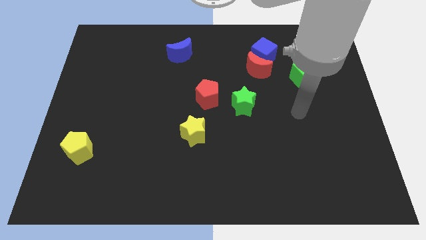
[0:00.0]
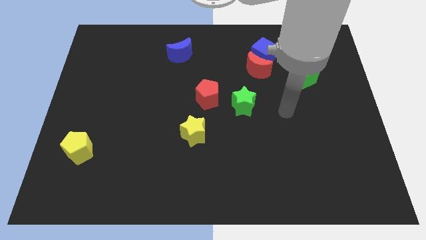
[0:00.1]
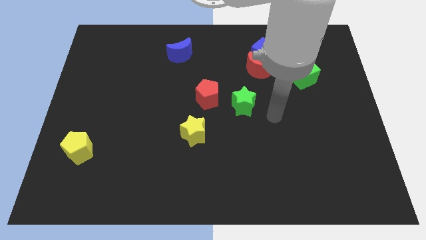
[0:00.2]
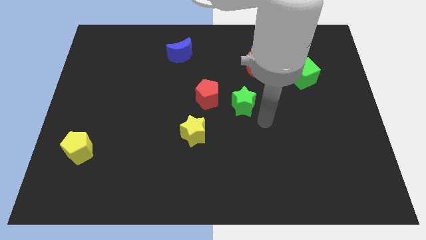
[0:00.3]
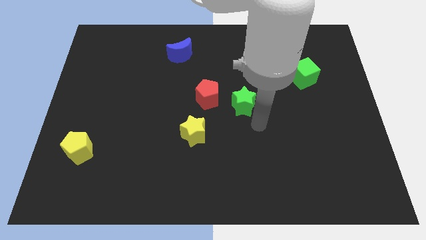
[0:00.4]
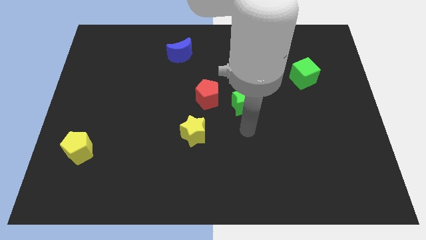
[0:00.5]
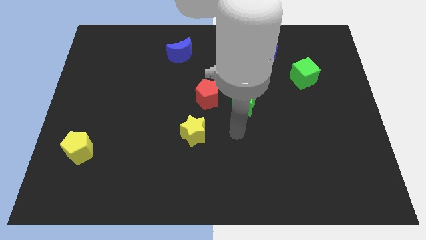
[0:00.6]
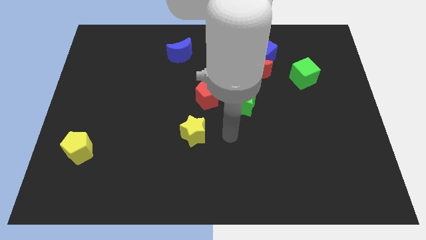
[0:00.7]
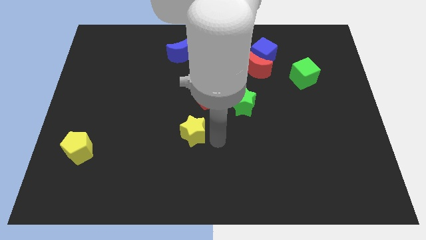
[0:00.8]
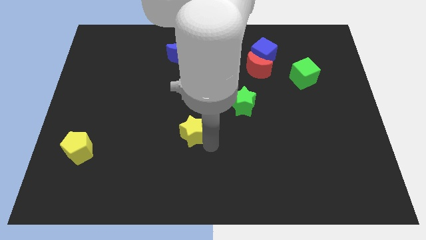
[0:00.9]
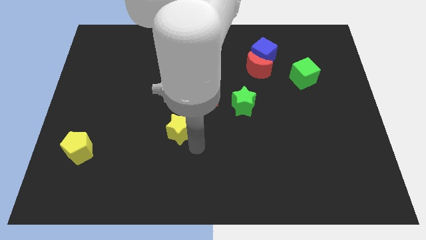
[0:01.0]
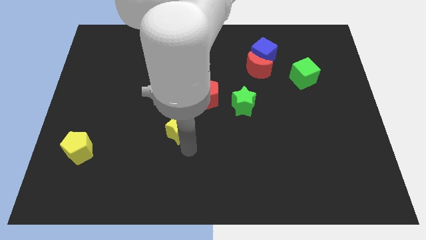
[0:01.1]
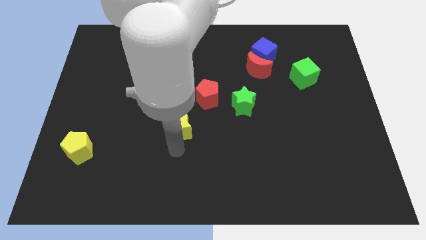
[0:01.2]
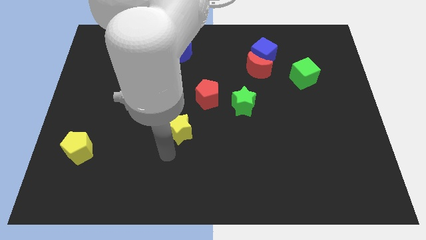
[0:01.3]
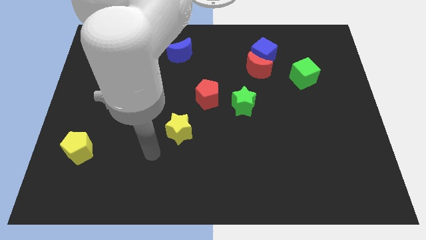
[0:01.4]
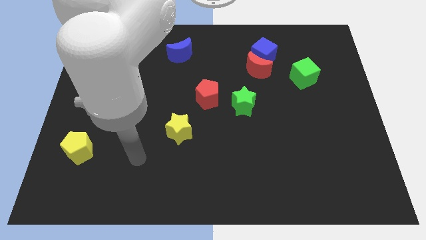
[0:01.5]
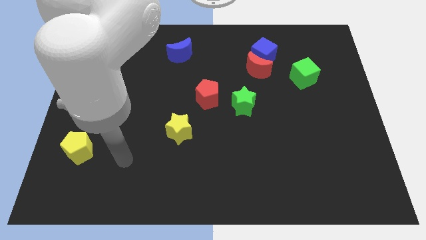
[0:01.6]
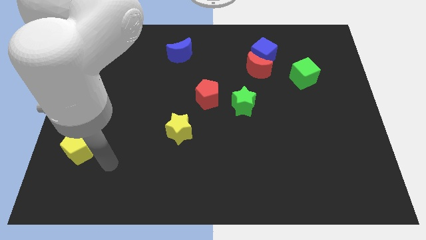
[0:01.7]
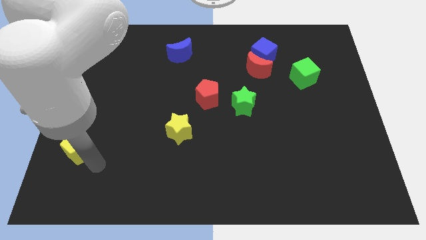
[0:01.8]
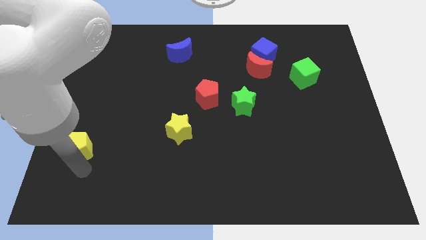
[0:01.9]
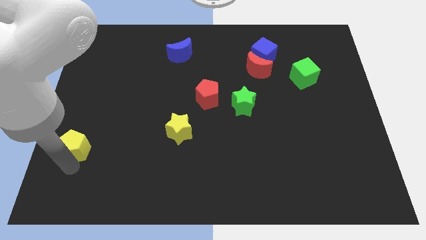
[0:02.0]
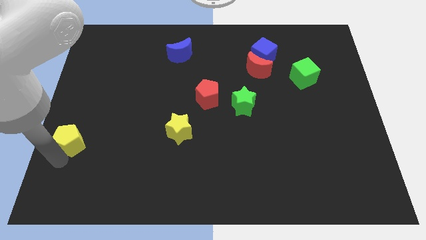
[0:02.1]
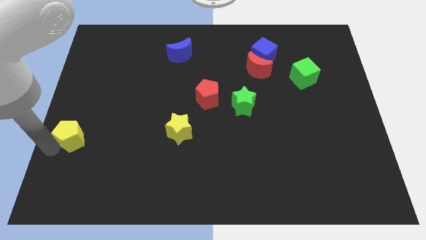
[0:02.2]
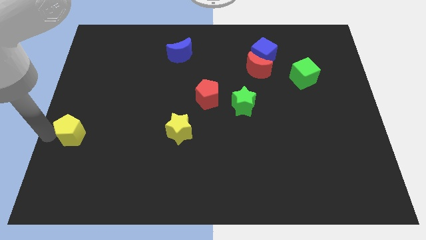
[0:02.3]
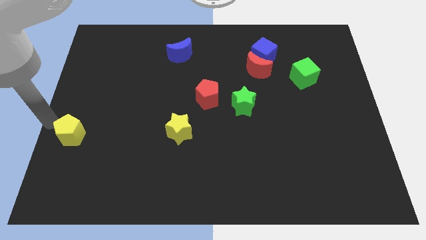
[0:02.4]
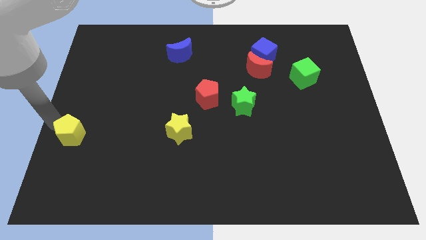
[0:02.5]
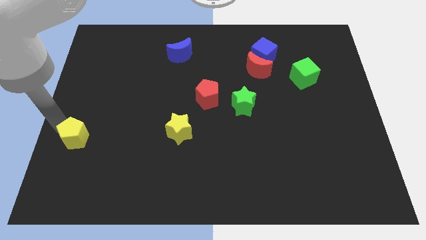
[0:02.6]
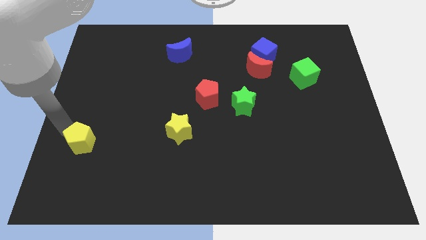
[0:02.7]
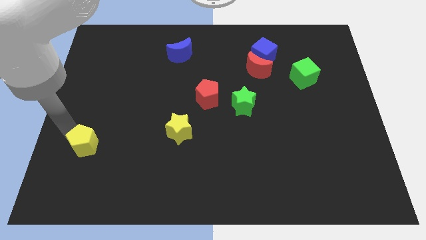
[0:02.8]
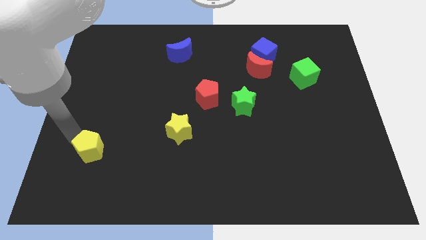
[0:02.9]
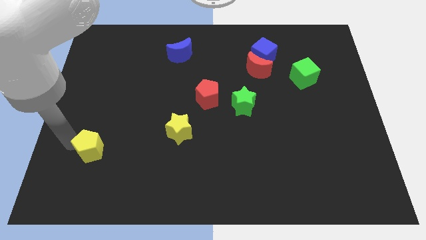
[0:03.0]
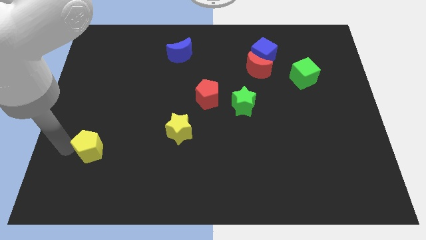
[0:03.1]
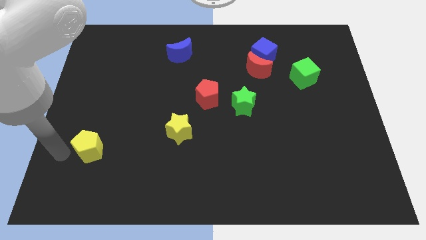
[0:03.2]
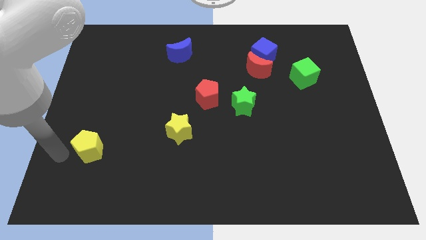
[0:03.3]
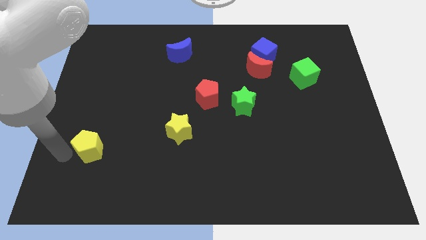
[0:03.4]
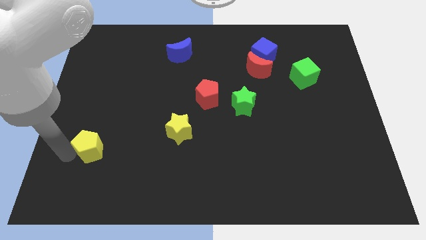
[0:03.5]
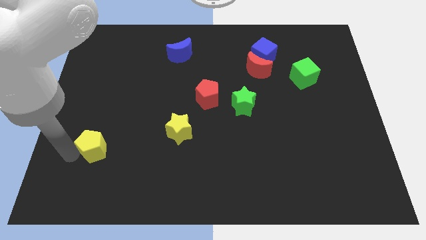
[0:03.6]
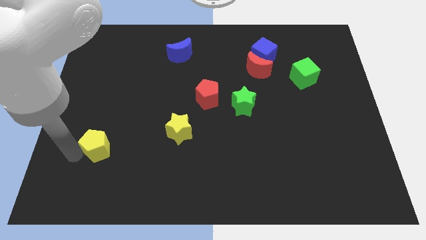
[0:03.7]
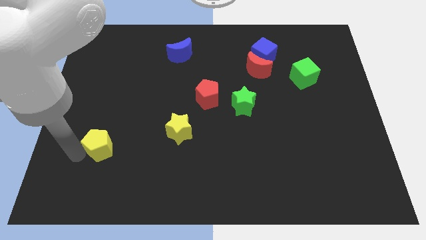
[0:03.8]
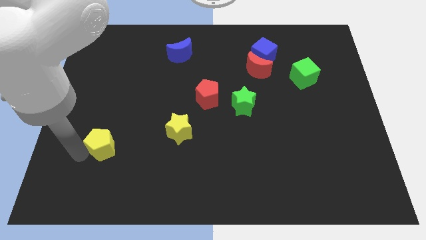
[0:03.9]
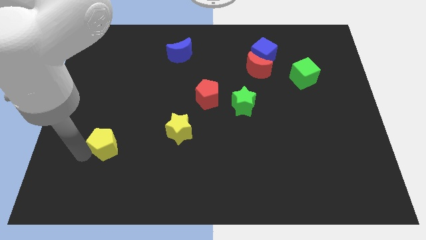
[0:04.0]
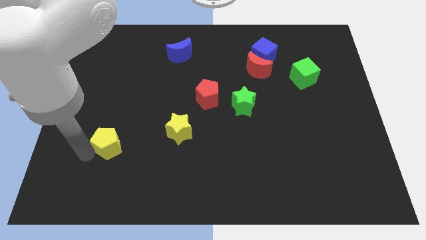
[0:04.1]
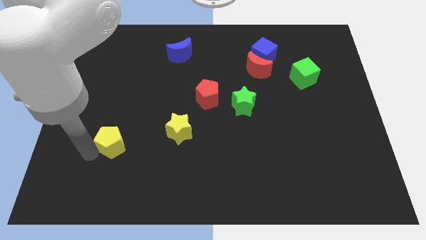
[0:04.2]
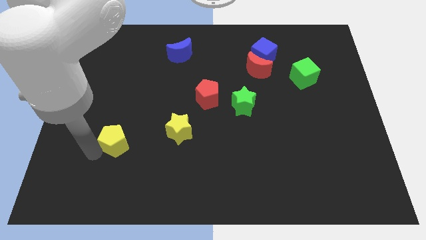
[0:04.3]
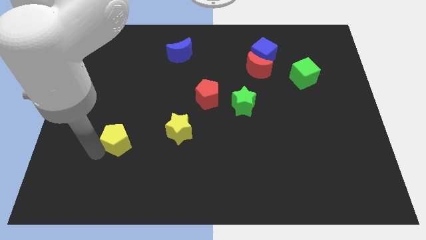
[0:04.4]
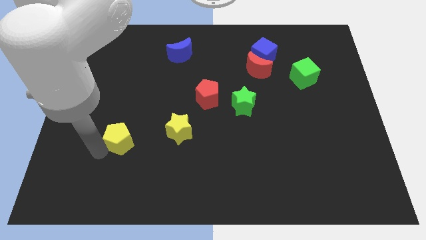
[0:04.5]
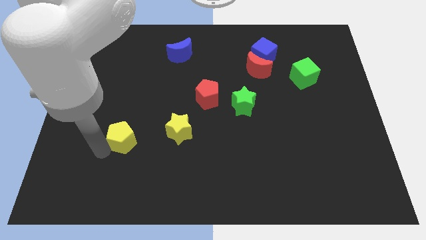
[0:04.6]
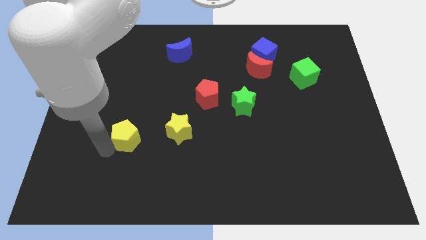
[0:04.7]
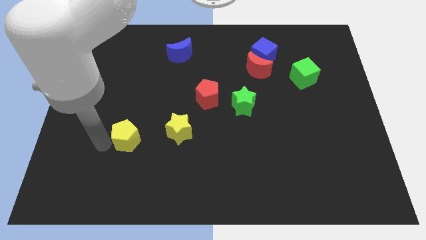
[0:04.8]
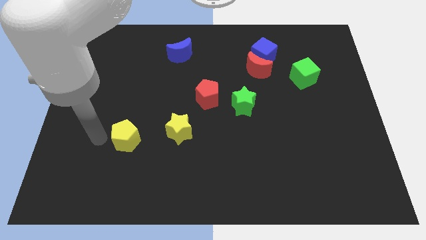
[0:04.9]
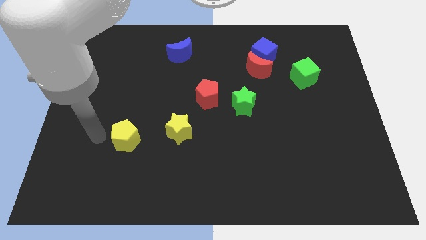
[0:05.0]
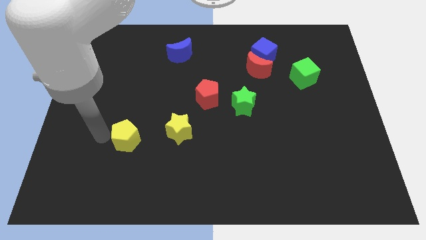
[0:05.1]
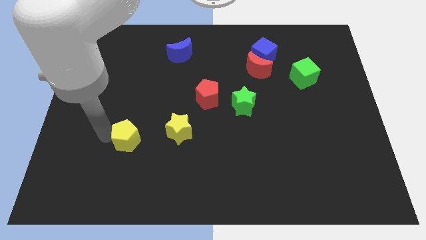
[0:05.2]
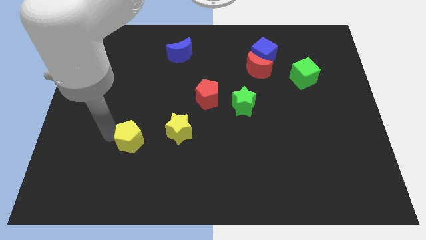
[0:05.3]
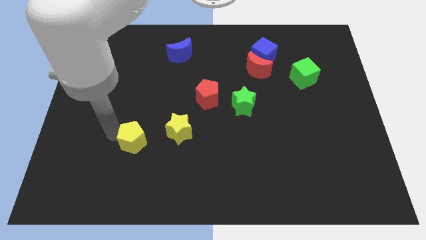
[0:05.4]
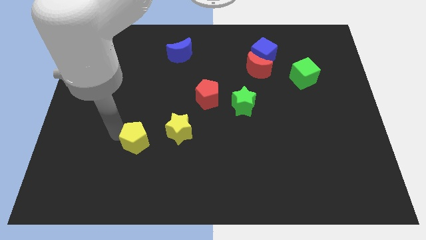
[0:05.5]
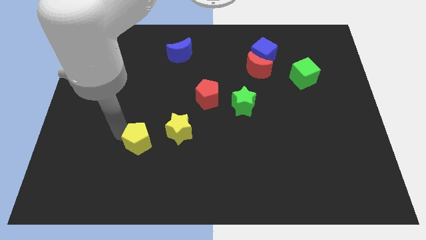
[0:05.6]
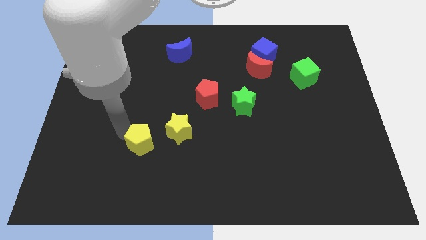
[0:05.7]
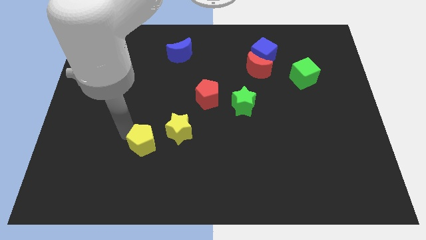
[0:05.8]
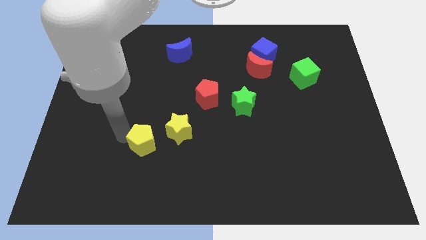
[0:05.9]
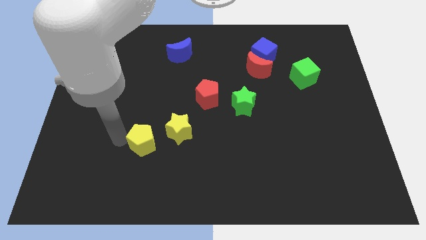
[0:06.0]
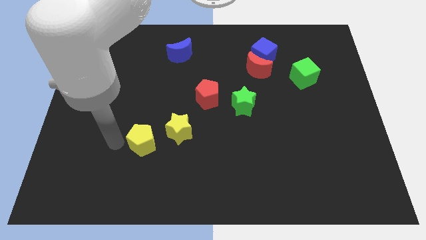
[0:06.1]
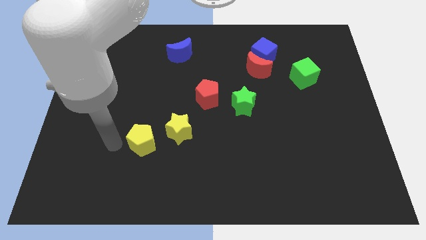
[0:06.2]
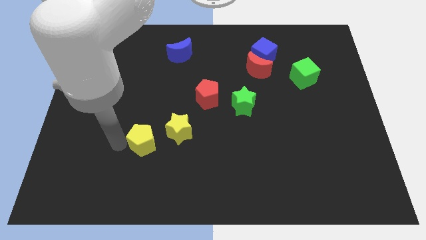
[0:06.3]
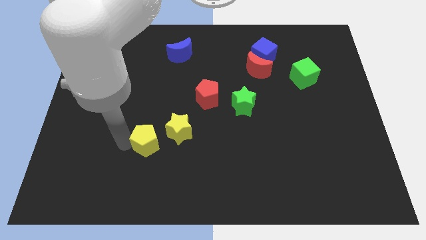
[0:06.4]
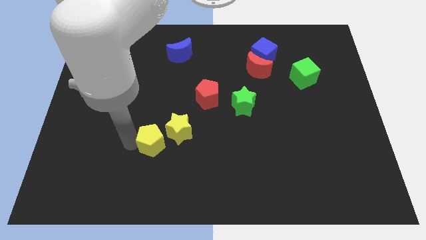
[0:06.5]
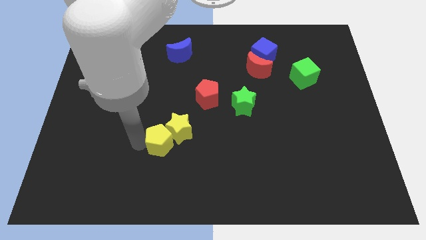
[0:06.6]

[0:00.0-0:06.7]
move the yellow pentagon next to the yellow star

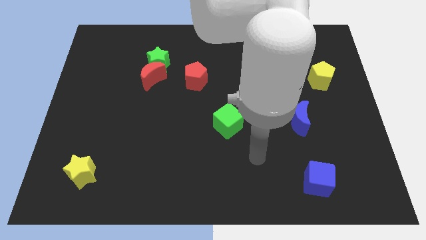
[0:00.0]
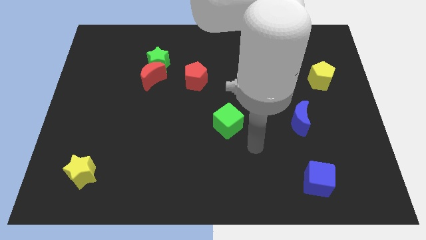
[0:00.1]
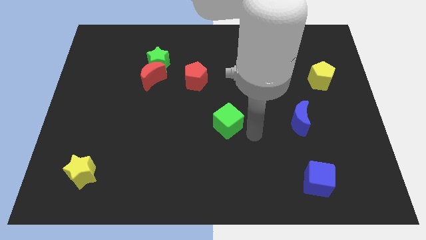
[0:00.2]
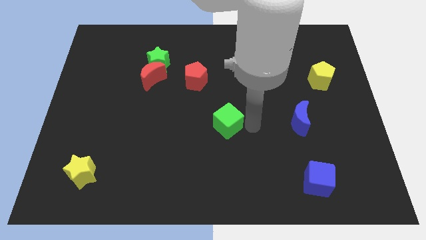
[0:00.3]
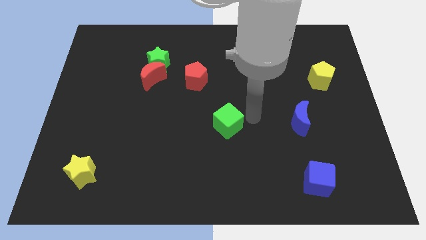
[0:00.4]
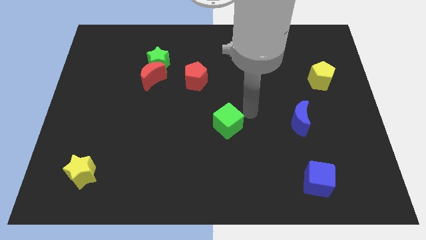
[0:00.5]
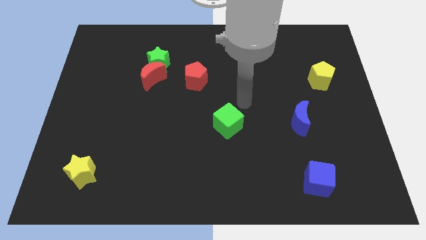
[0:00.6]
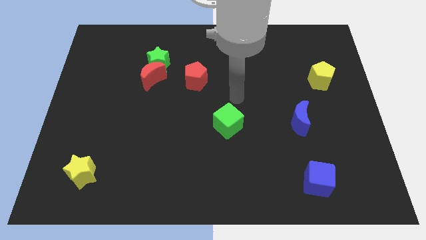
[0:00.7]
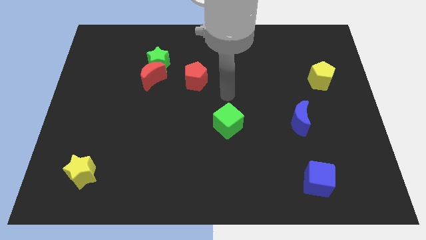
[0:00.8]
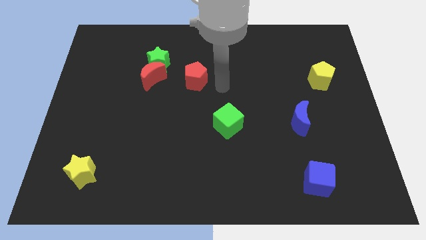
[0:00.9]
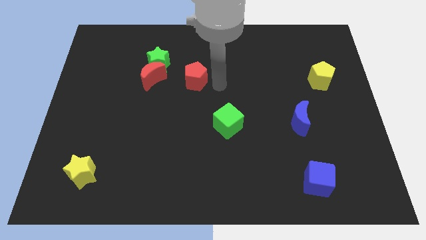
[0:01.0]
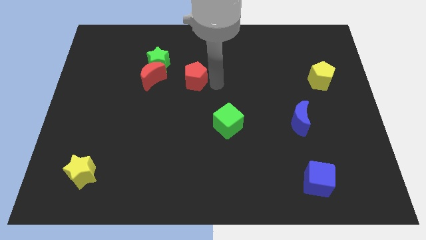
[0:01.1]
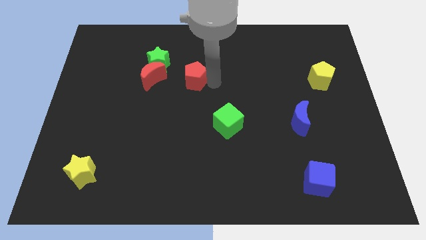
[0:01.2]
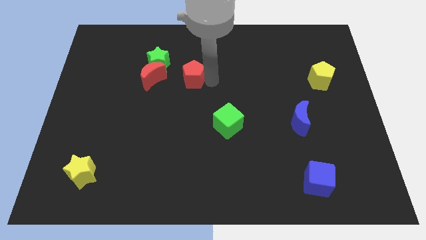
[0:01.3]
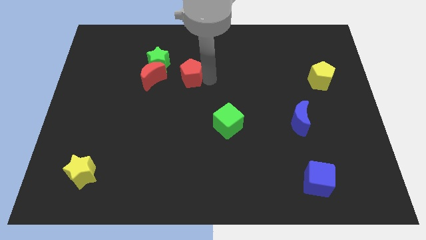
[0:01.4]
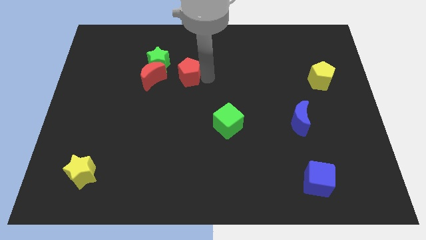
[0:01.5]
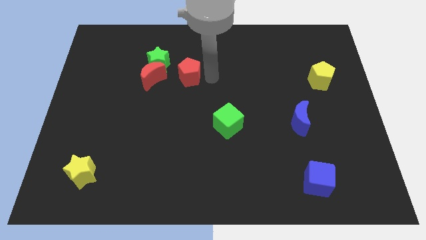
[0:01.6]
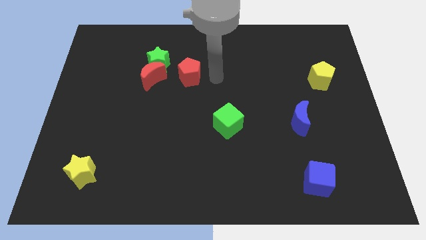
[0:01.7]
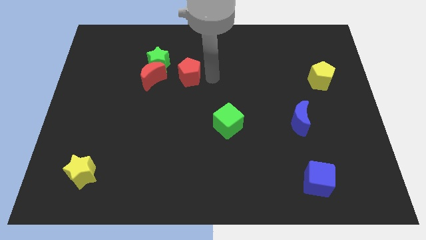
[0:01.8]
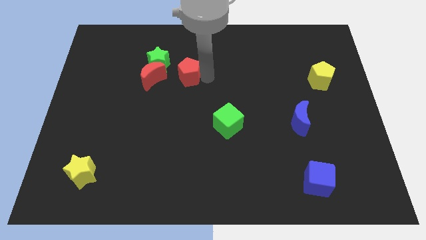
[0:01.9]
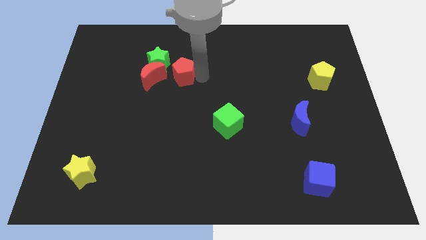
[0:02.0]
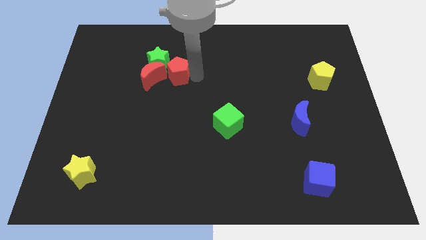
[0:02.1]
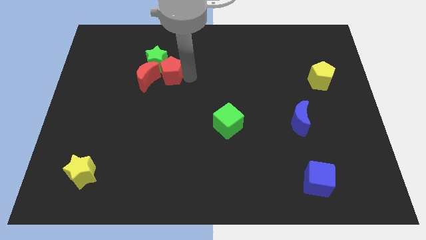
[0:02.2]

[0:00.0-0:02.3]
slide the red pentagon close to the green star
